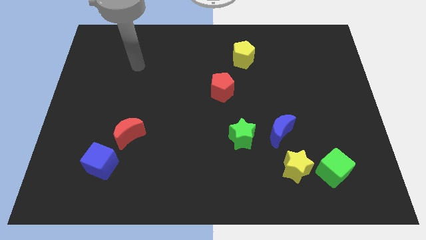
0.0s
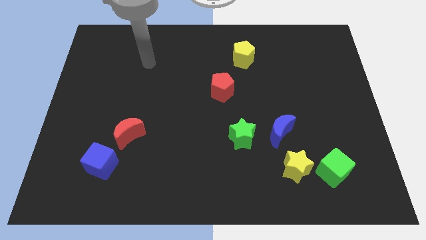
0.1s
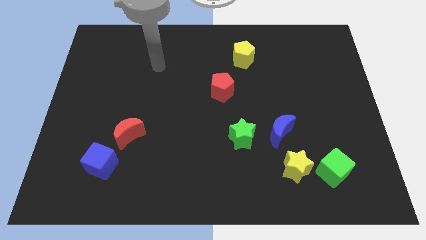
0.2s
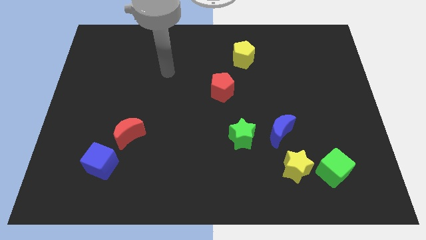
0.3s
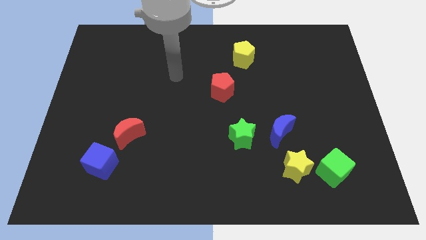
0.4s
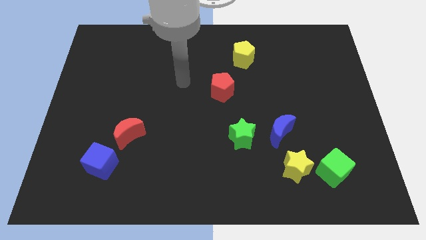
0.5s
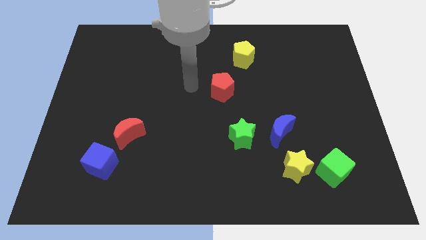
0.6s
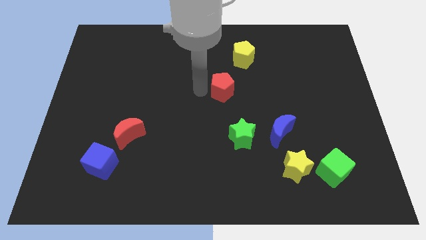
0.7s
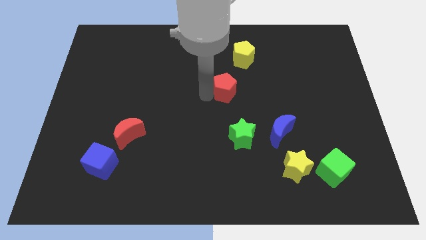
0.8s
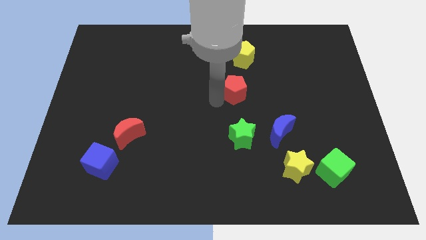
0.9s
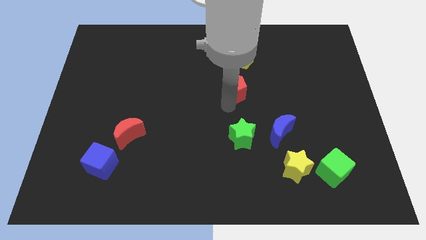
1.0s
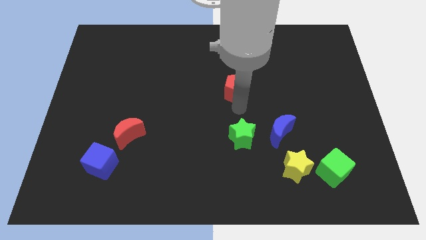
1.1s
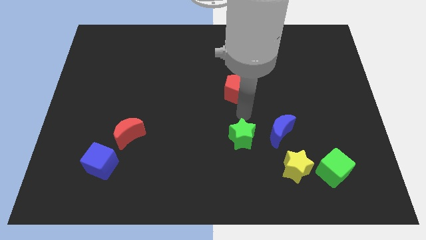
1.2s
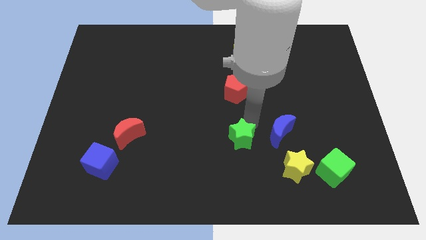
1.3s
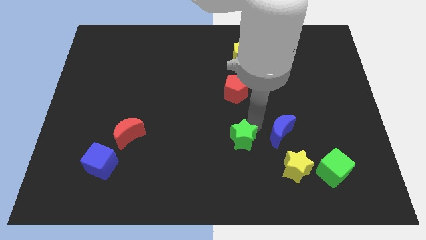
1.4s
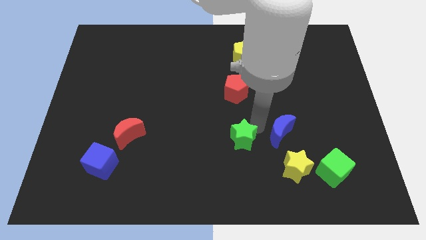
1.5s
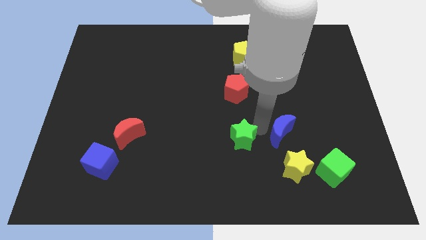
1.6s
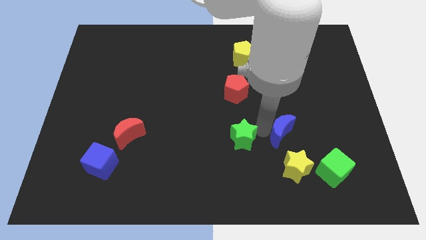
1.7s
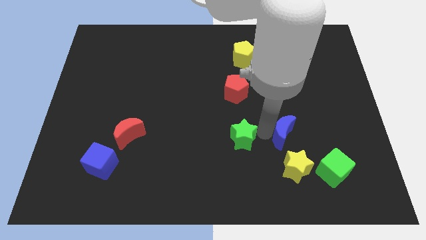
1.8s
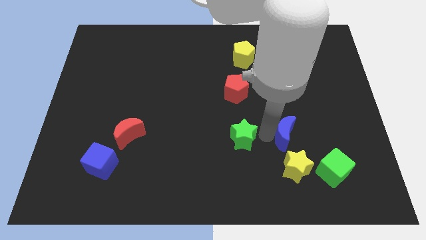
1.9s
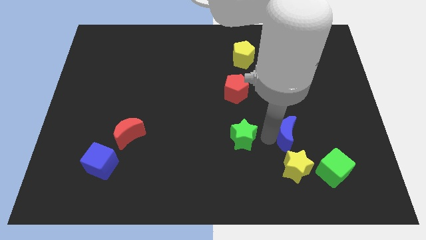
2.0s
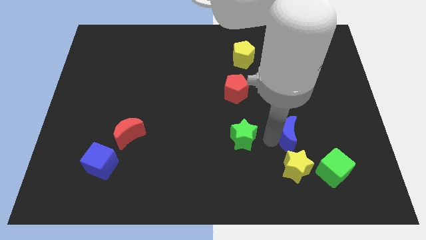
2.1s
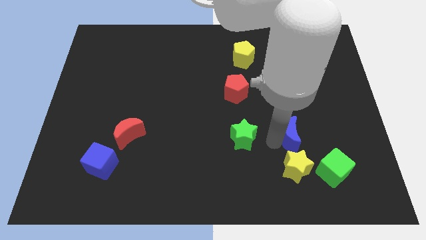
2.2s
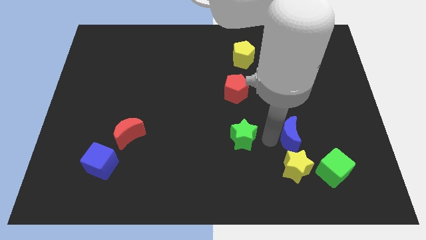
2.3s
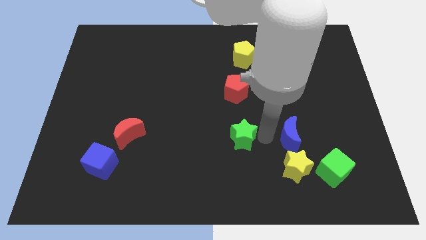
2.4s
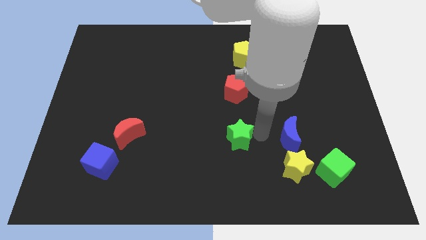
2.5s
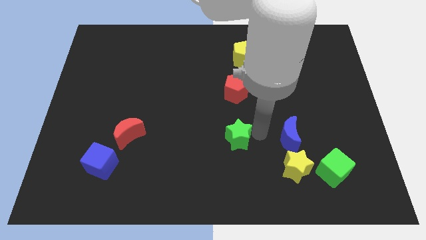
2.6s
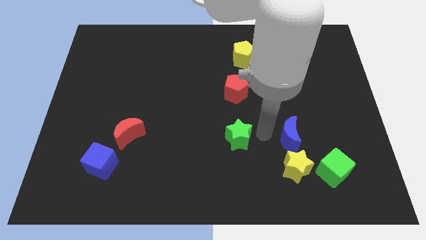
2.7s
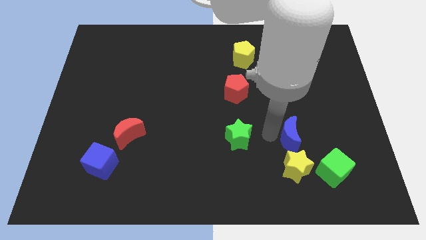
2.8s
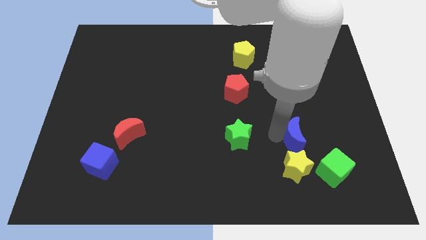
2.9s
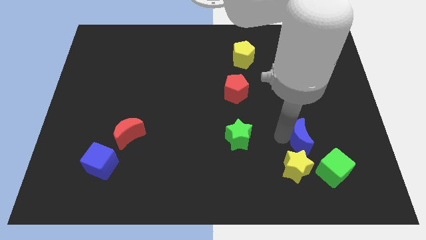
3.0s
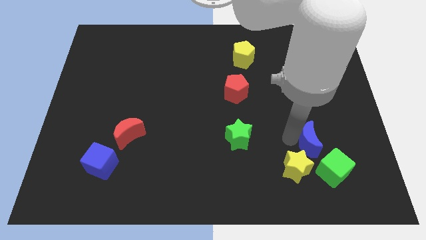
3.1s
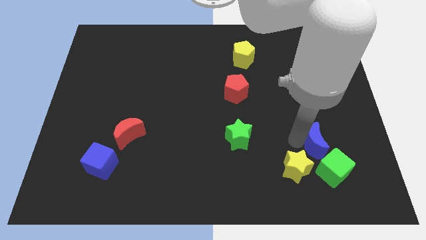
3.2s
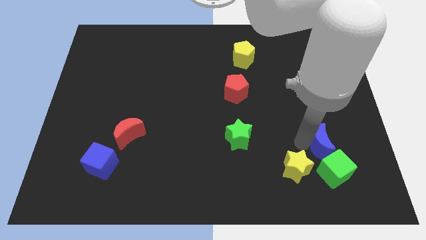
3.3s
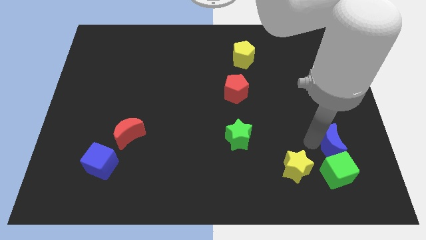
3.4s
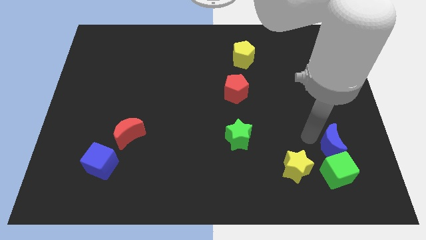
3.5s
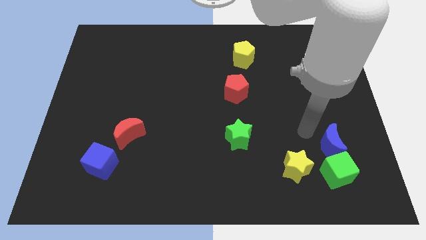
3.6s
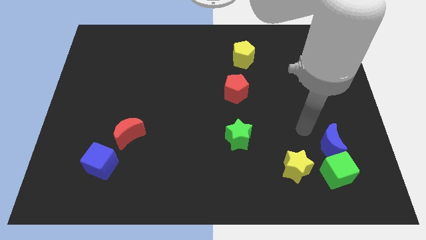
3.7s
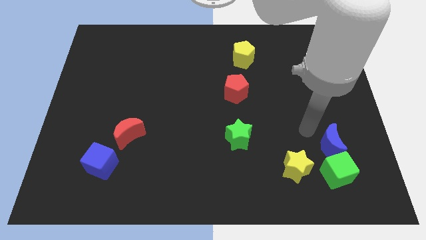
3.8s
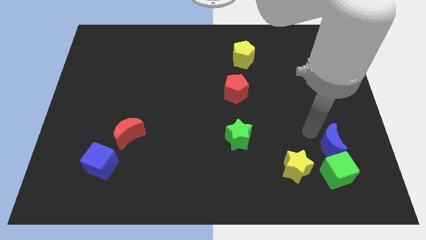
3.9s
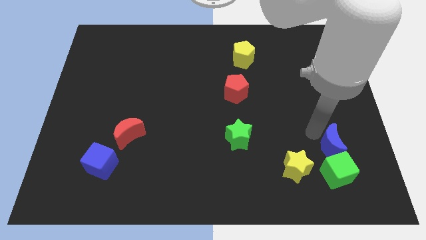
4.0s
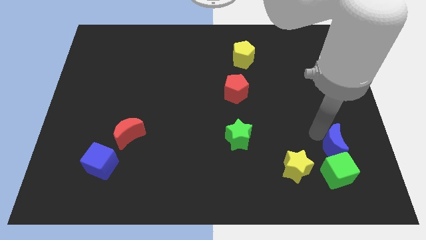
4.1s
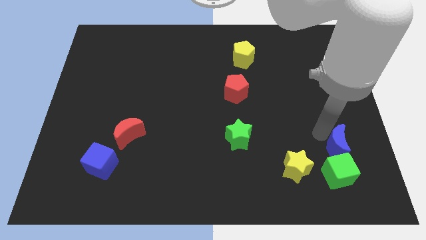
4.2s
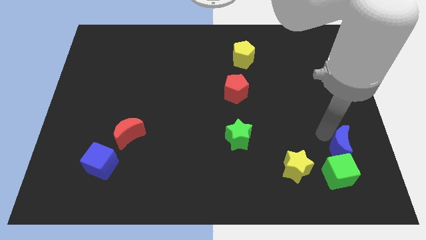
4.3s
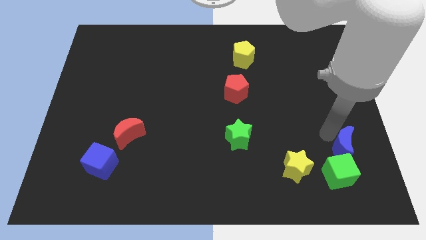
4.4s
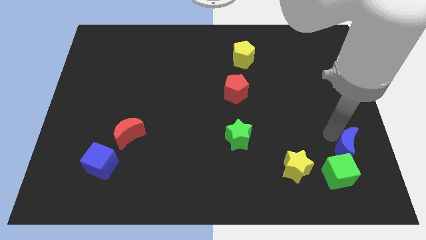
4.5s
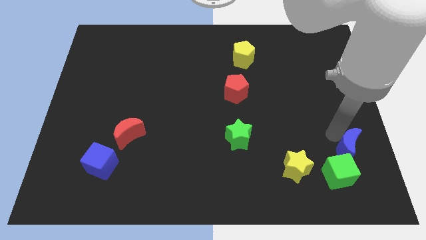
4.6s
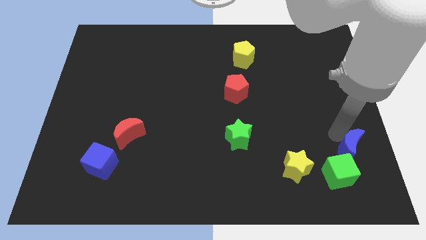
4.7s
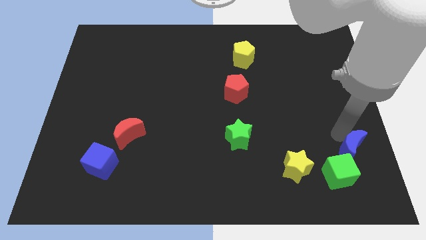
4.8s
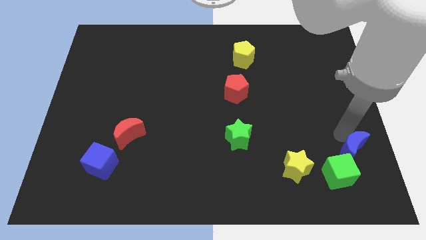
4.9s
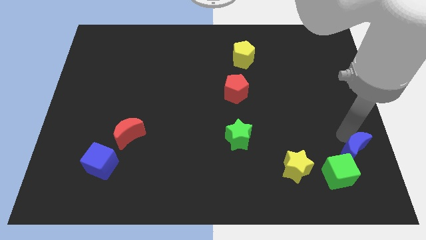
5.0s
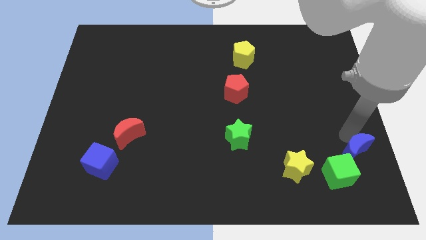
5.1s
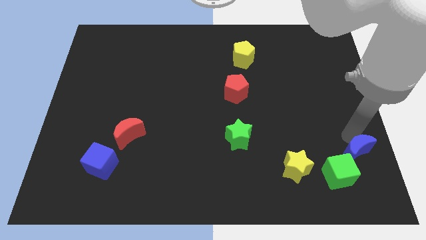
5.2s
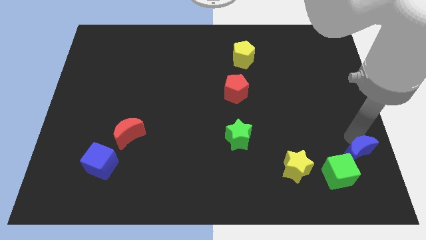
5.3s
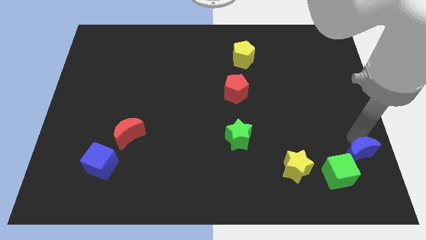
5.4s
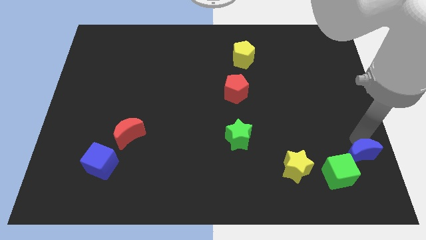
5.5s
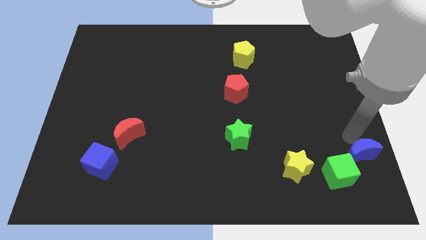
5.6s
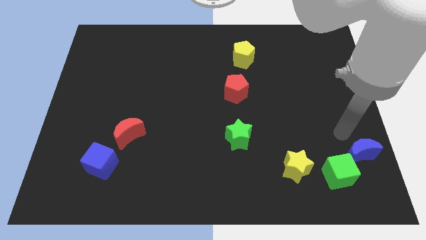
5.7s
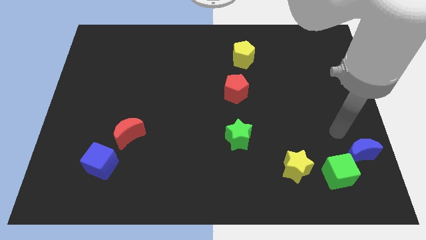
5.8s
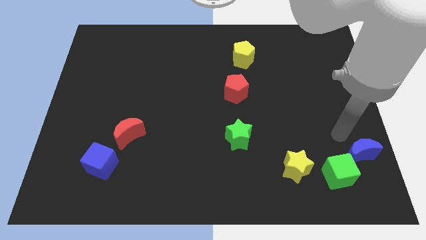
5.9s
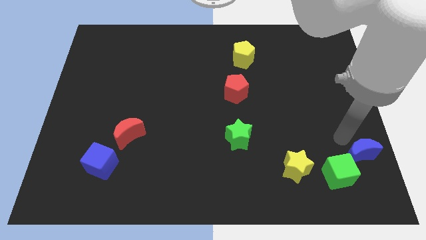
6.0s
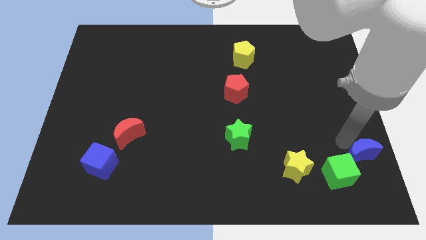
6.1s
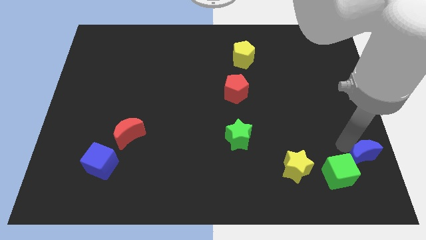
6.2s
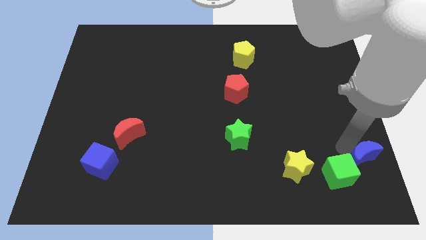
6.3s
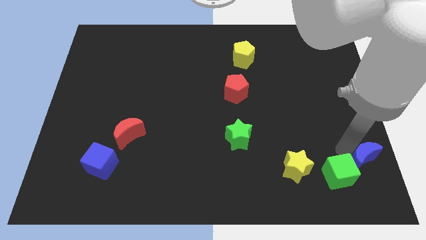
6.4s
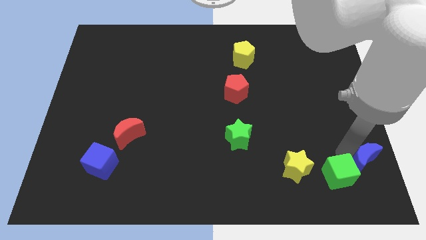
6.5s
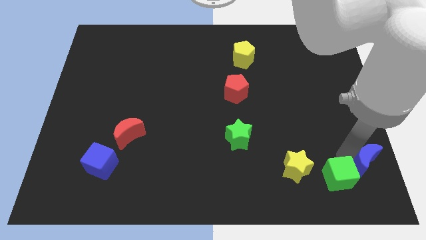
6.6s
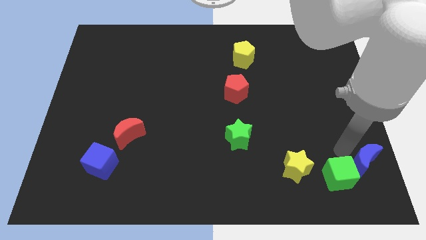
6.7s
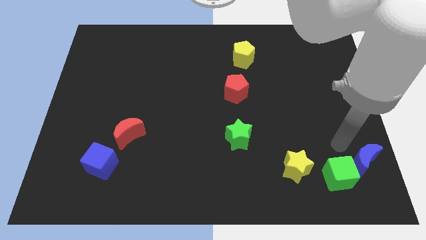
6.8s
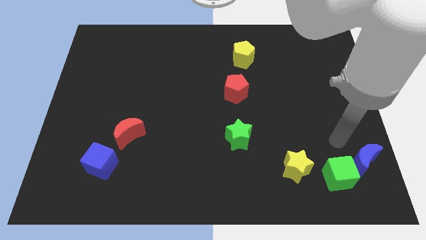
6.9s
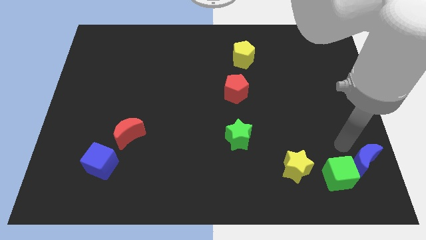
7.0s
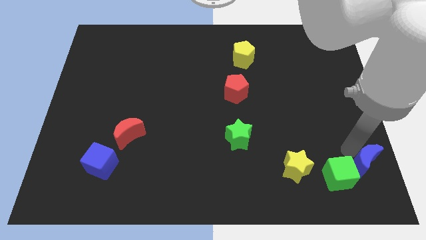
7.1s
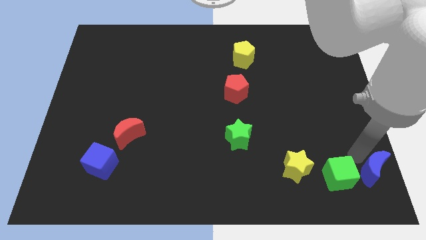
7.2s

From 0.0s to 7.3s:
move the blue moon to the bottom right

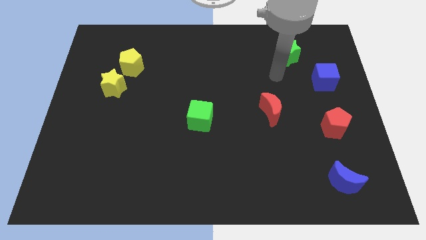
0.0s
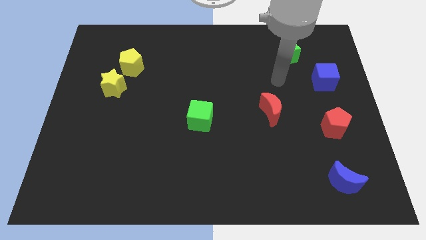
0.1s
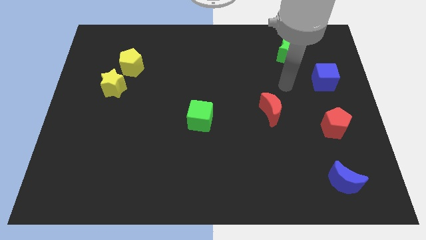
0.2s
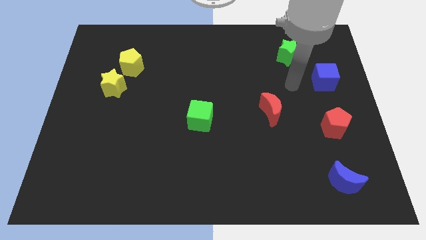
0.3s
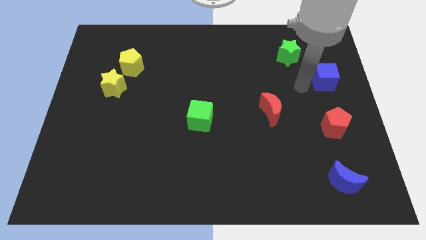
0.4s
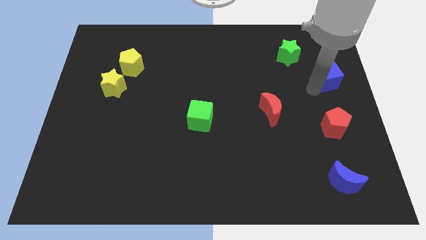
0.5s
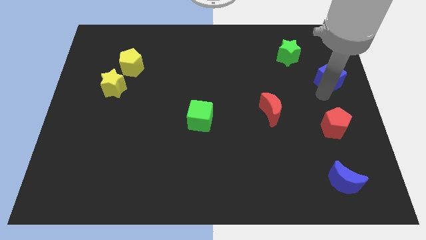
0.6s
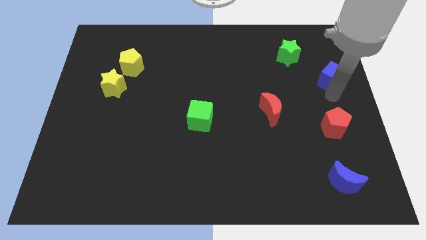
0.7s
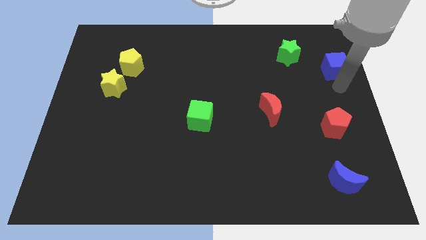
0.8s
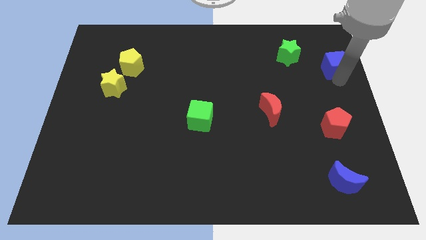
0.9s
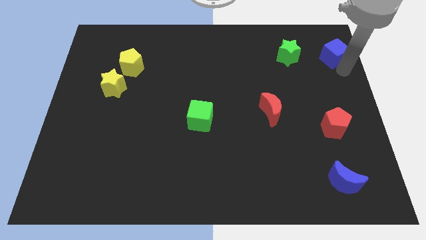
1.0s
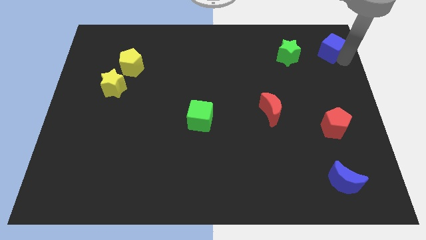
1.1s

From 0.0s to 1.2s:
push the blue cube to the top right
